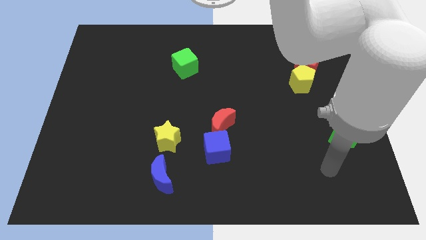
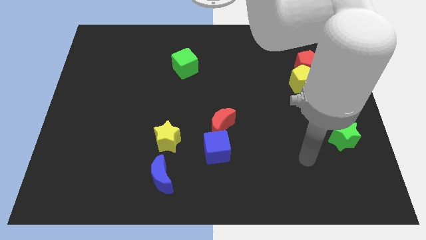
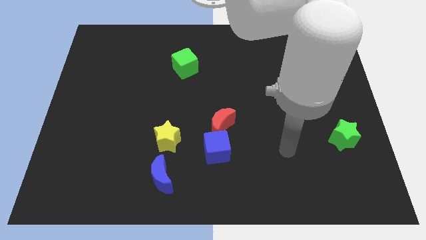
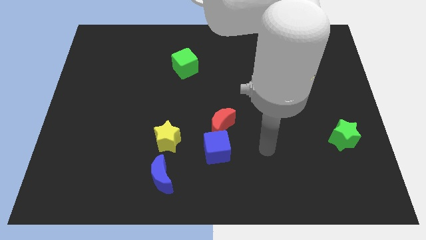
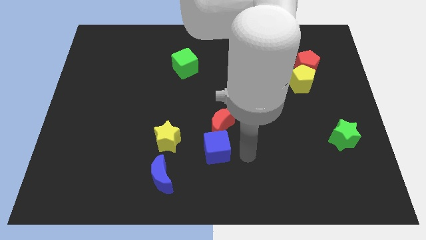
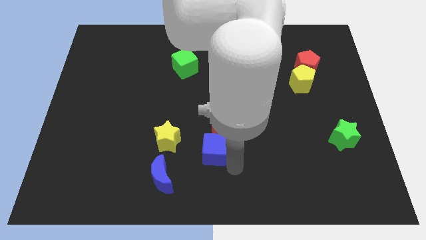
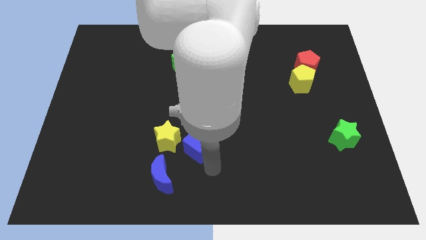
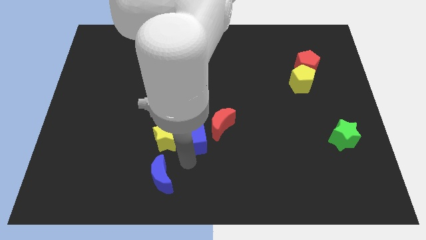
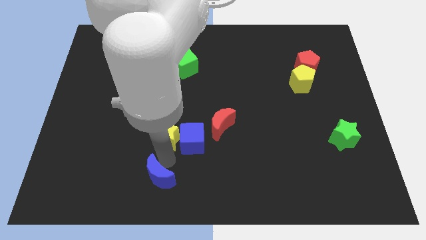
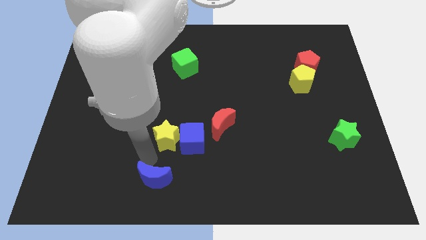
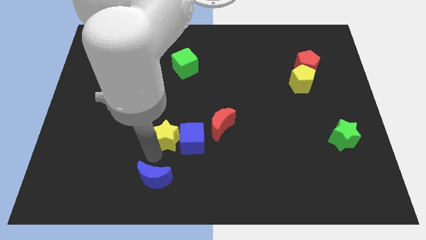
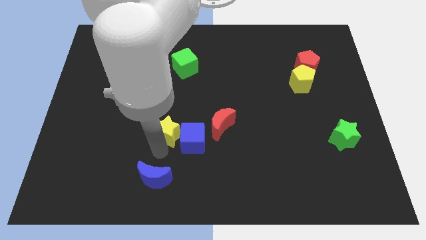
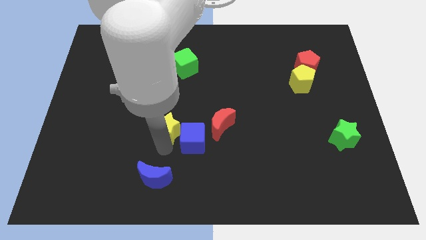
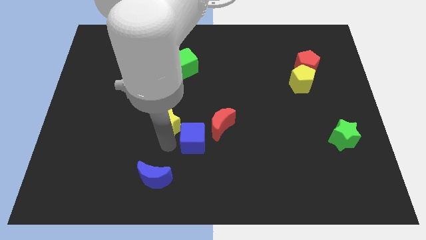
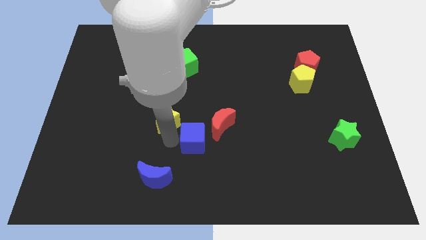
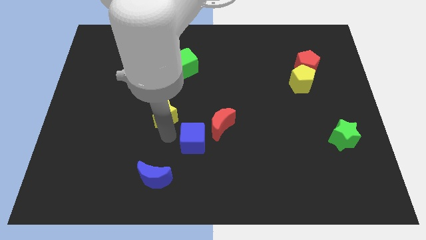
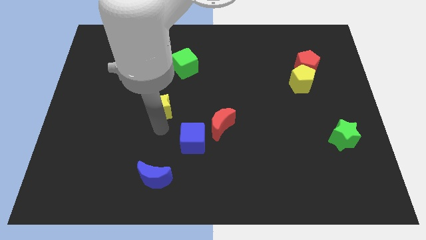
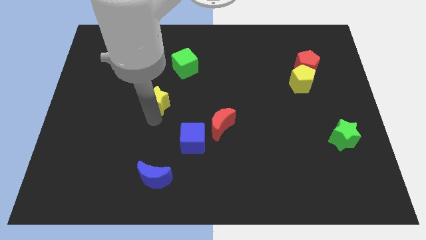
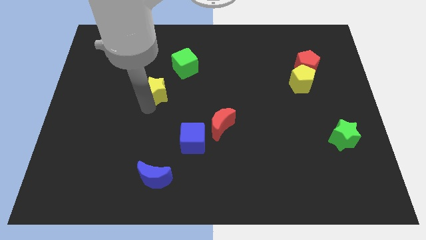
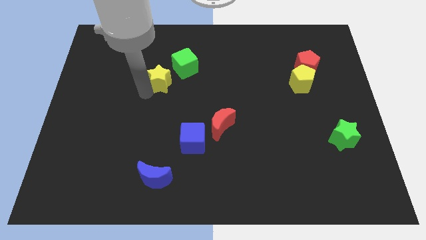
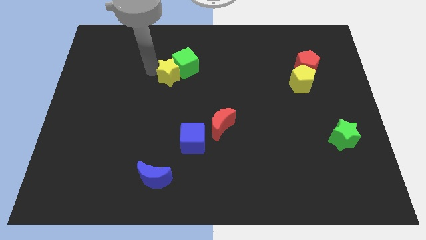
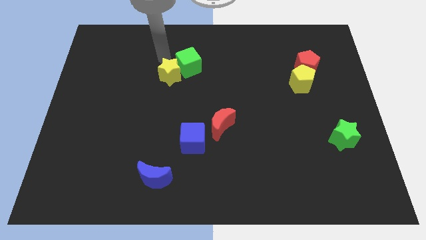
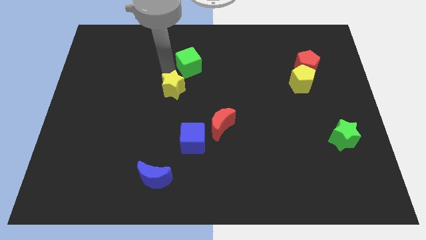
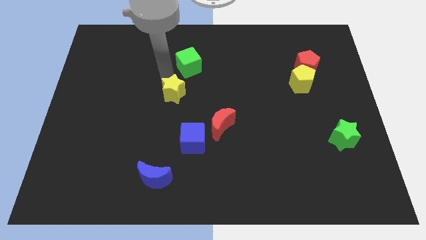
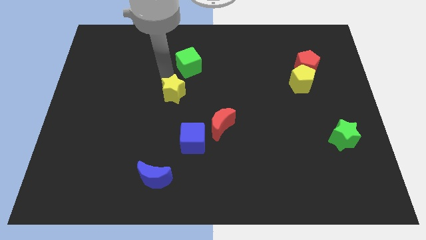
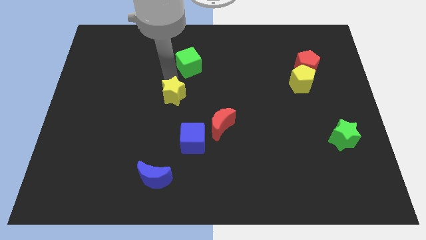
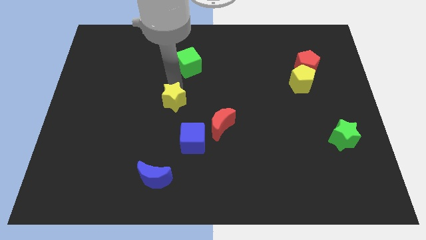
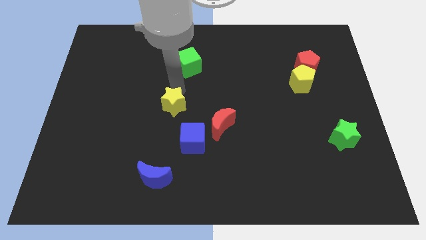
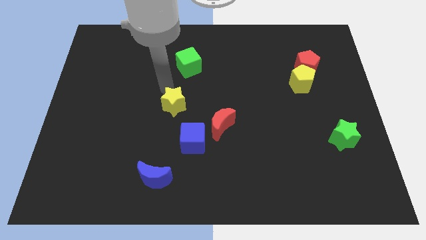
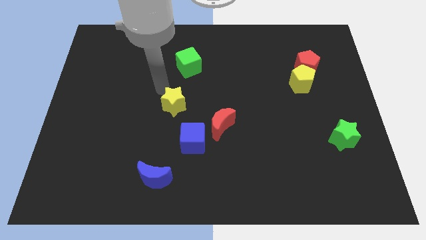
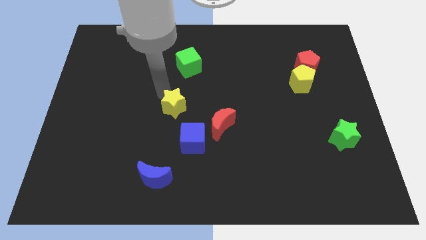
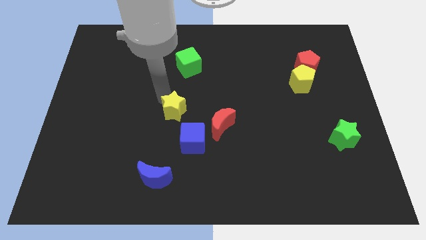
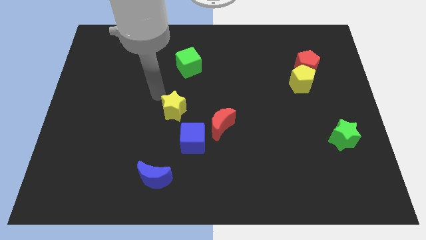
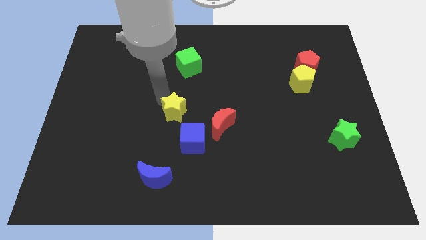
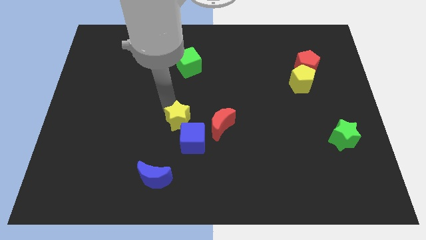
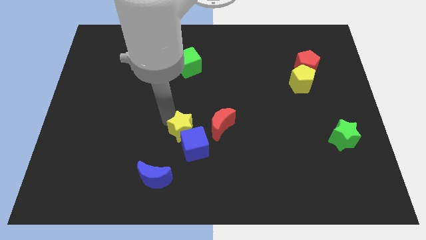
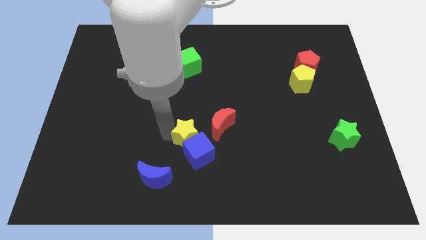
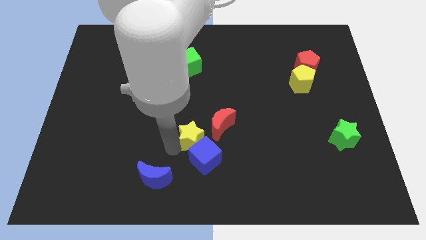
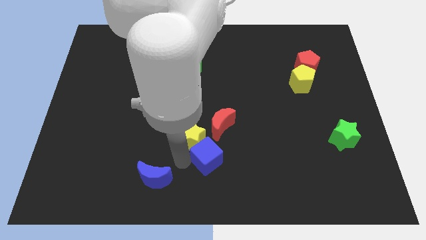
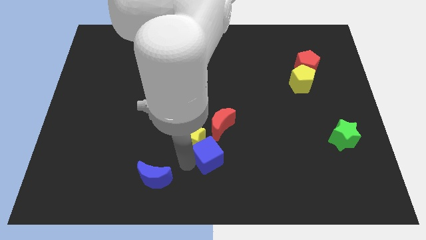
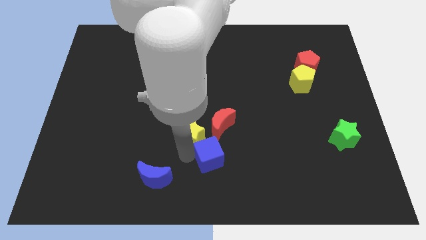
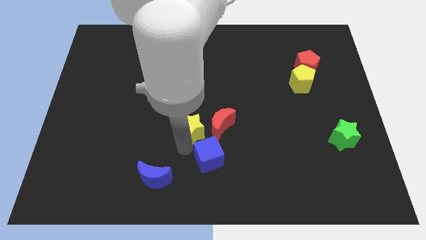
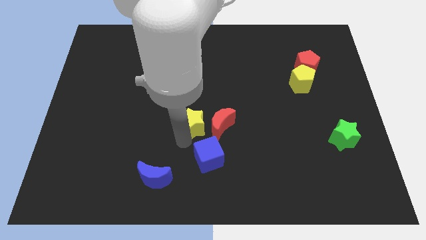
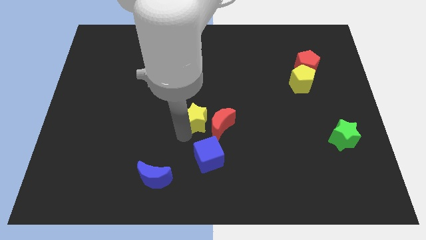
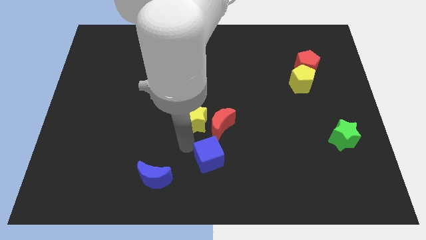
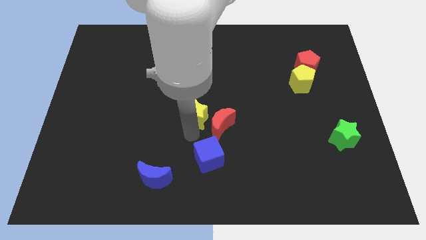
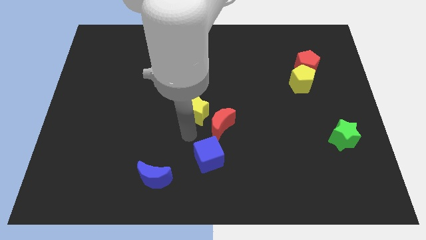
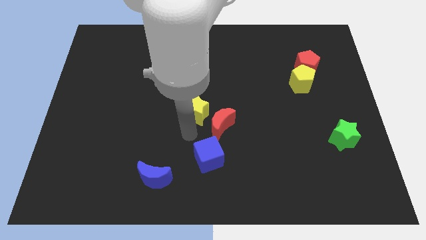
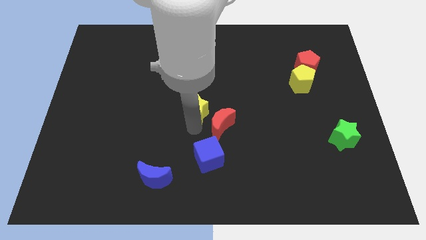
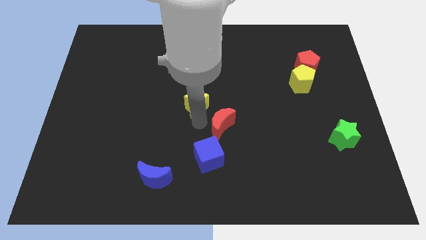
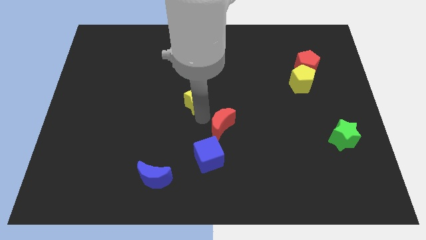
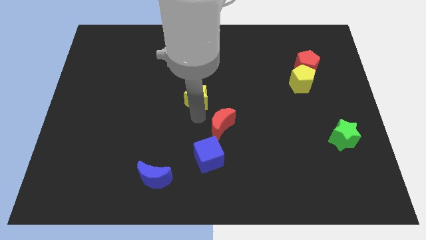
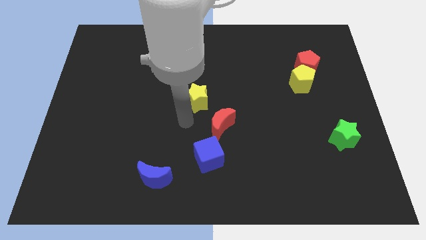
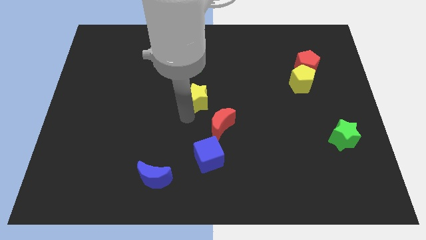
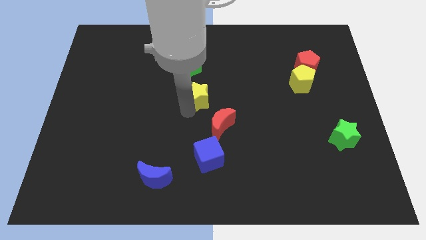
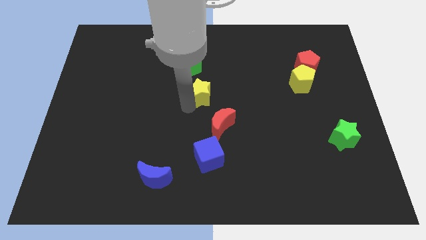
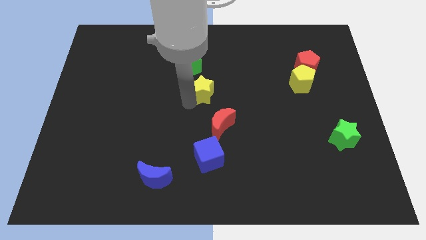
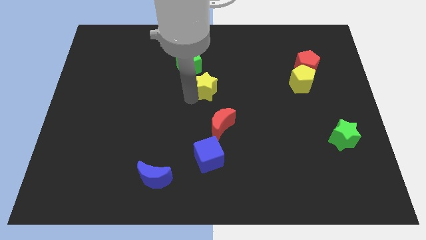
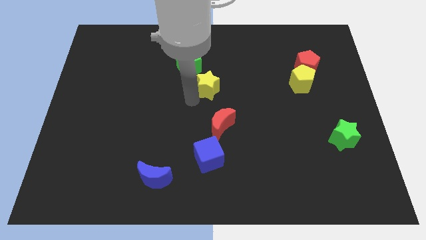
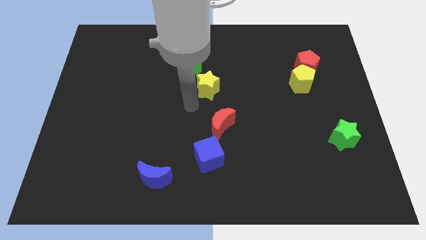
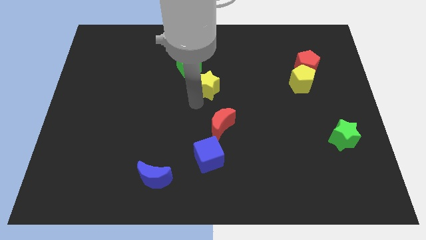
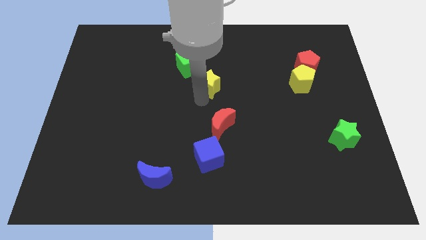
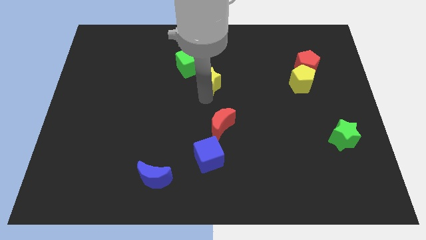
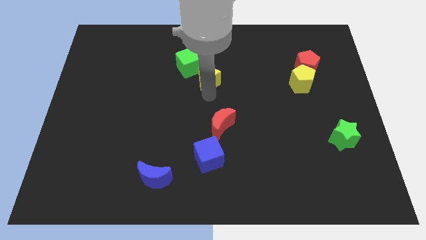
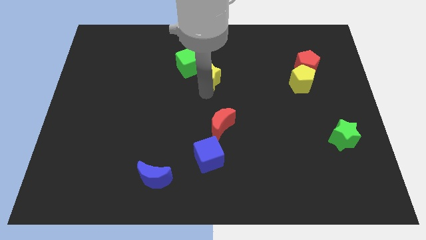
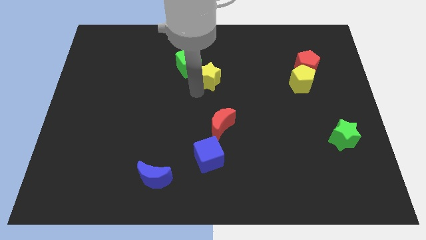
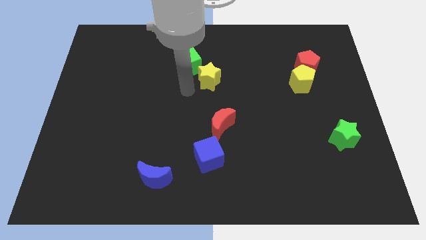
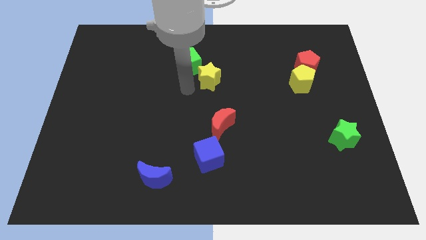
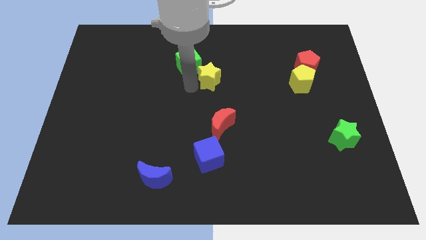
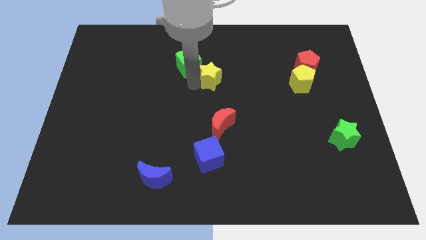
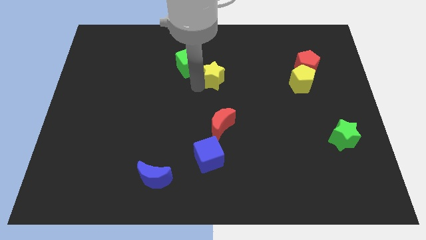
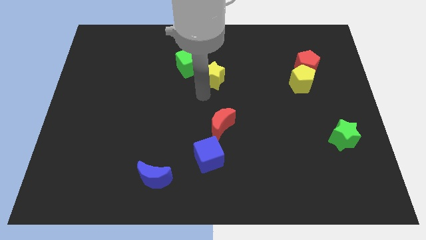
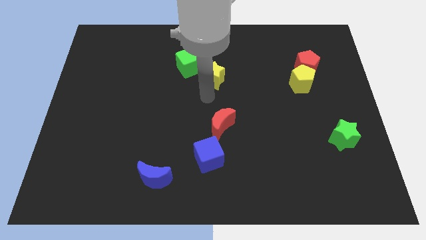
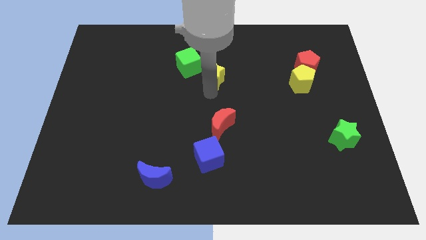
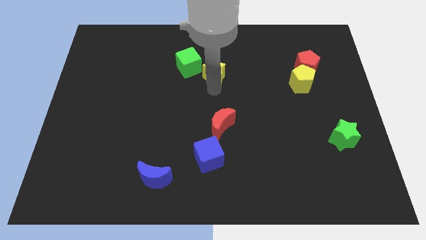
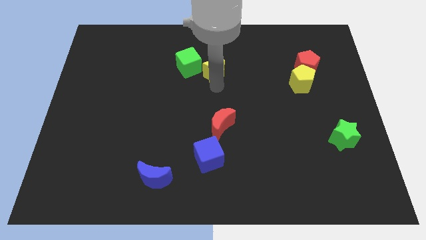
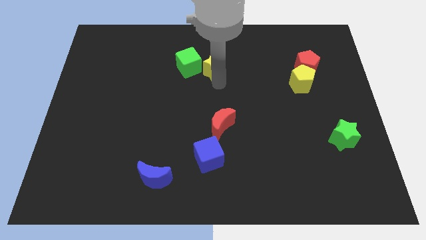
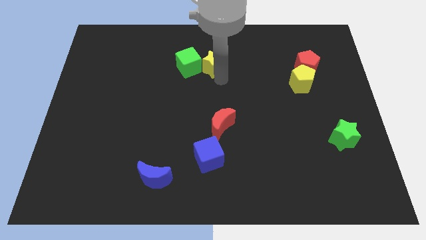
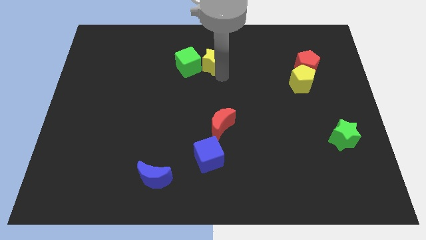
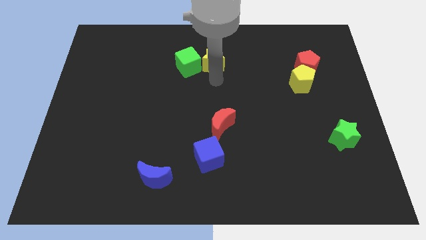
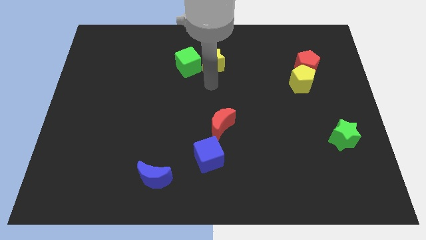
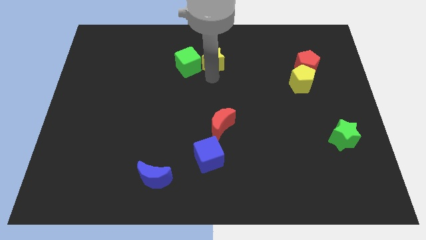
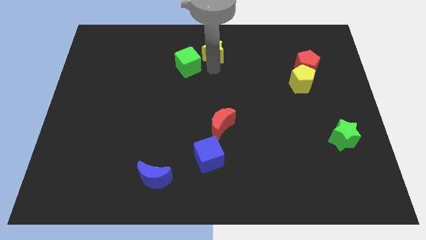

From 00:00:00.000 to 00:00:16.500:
put the yellow star to the top
